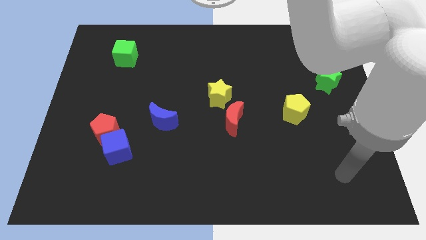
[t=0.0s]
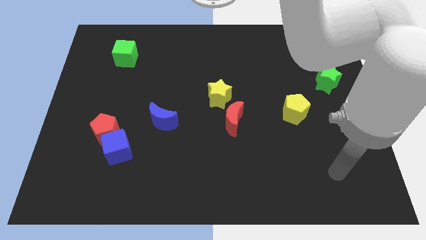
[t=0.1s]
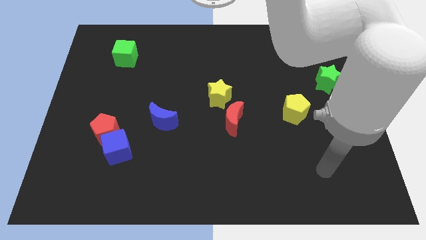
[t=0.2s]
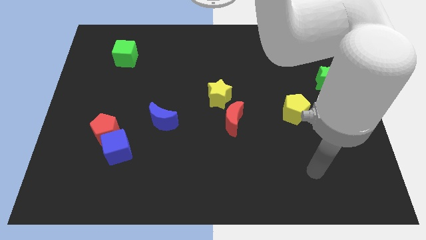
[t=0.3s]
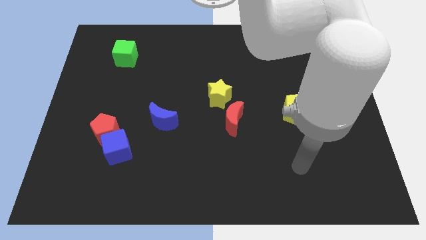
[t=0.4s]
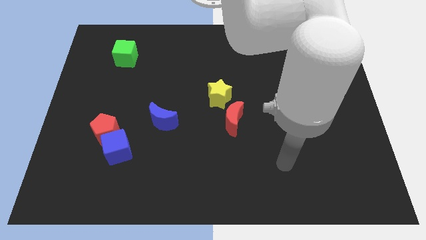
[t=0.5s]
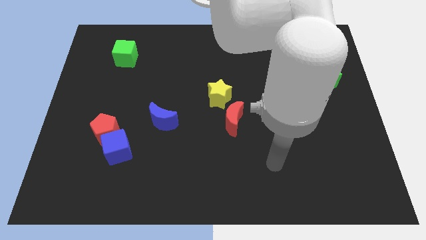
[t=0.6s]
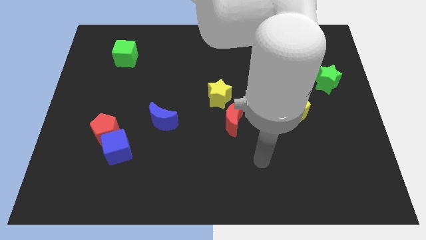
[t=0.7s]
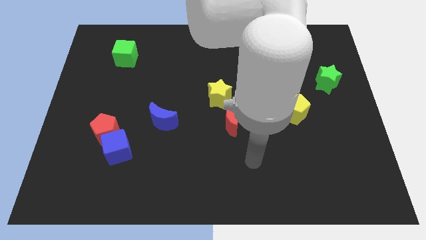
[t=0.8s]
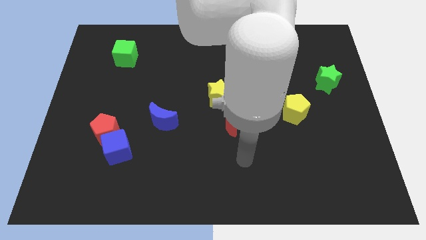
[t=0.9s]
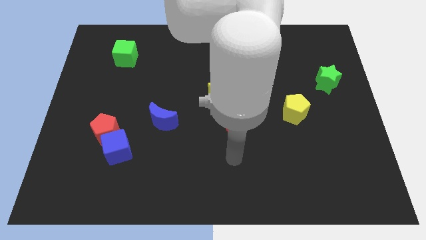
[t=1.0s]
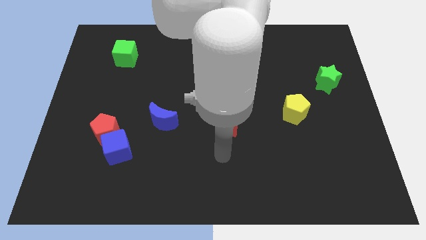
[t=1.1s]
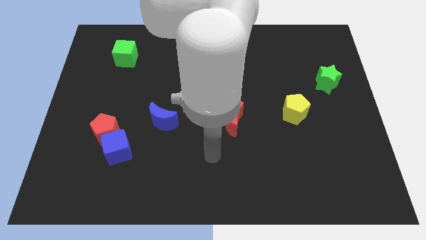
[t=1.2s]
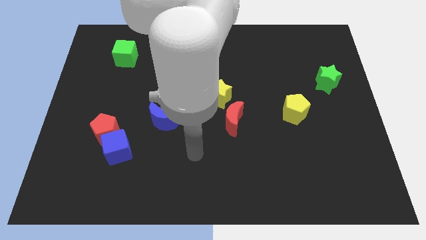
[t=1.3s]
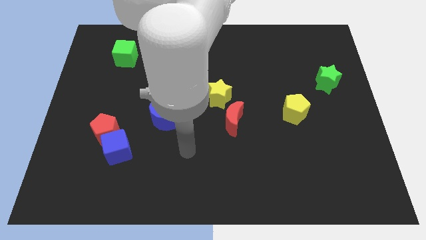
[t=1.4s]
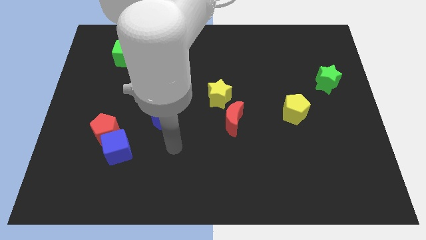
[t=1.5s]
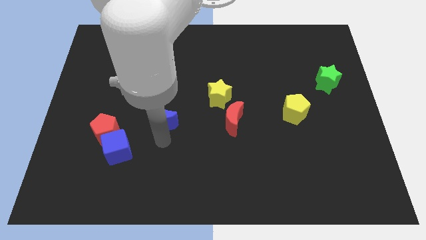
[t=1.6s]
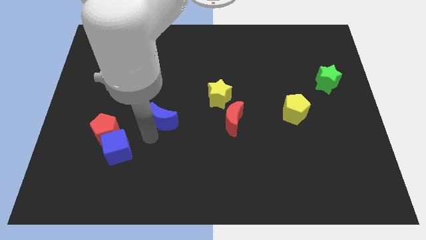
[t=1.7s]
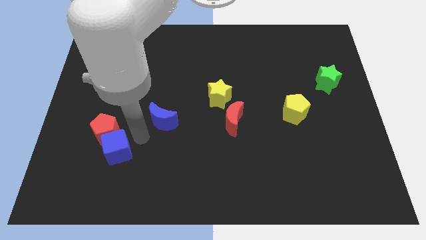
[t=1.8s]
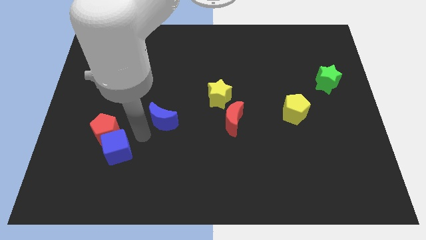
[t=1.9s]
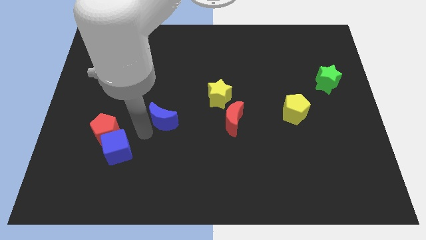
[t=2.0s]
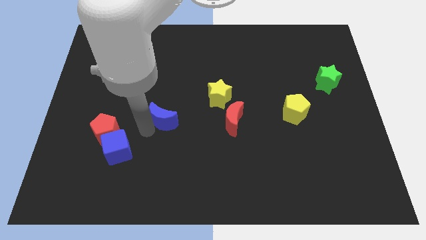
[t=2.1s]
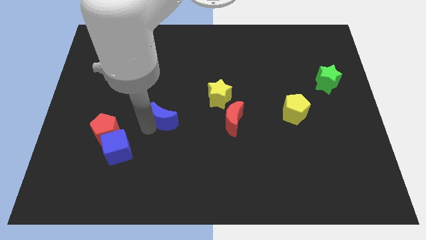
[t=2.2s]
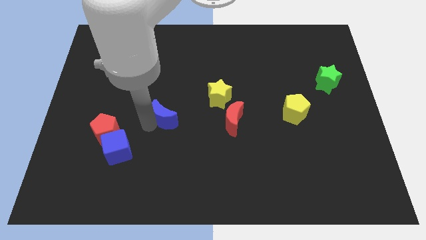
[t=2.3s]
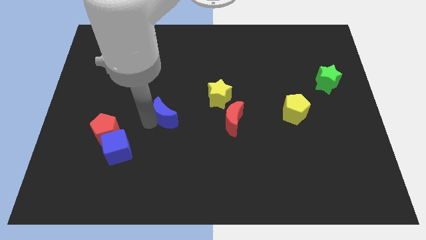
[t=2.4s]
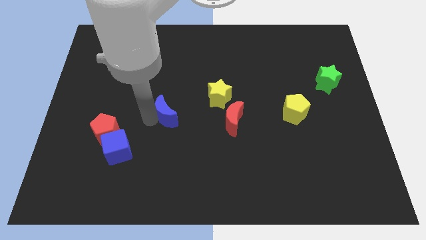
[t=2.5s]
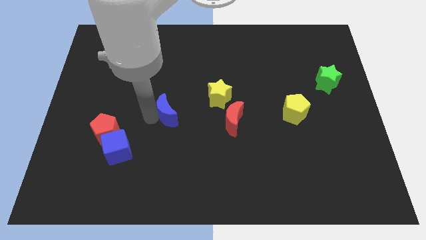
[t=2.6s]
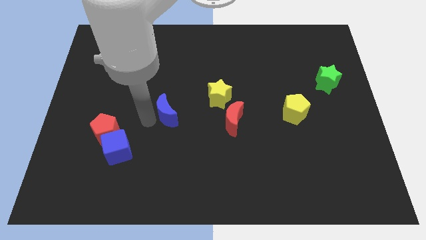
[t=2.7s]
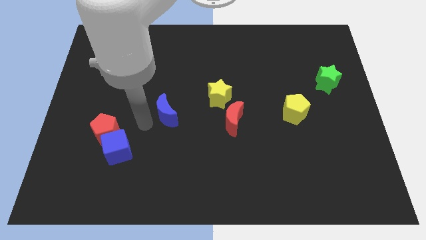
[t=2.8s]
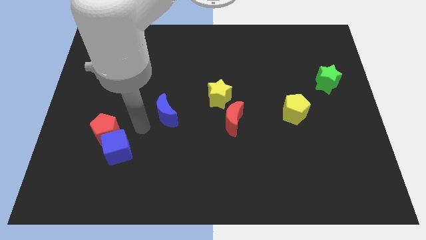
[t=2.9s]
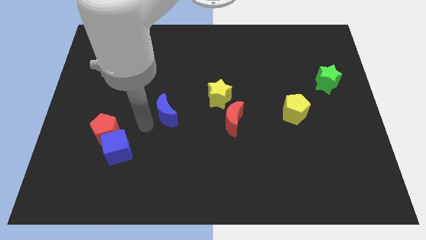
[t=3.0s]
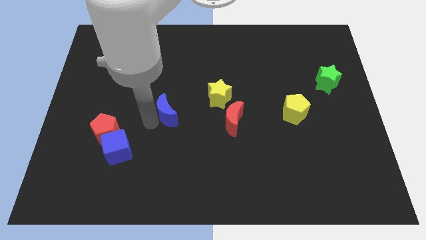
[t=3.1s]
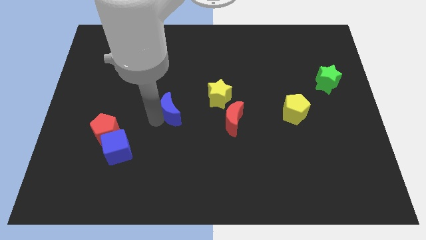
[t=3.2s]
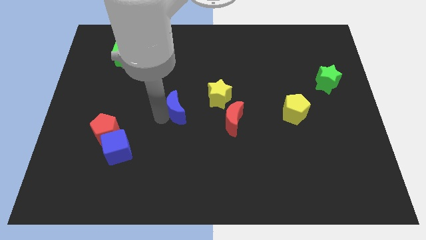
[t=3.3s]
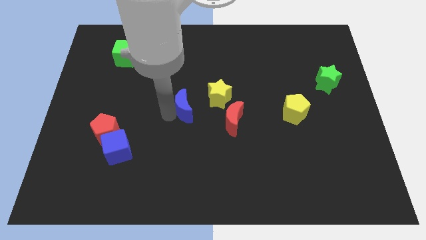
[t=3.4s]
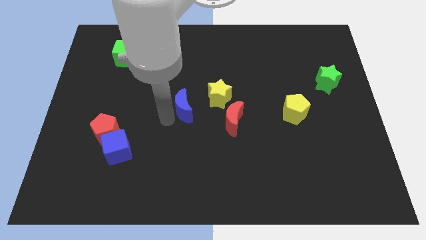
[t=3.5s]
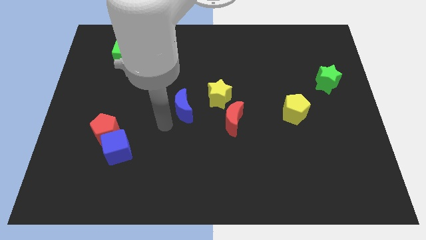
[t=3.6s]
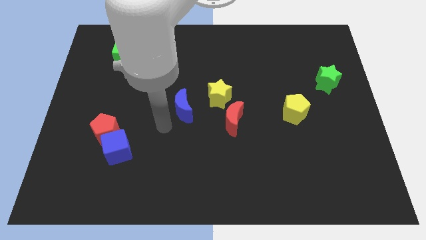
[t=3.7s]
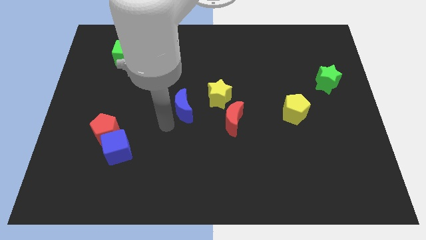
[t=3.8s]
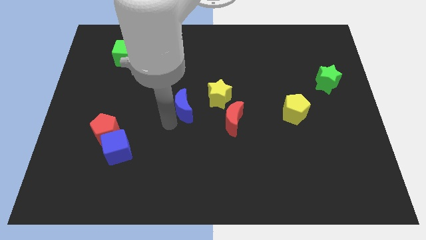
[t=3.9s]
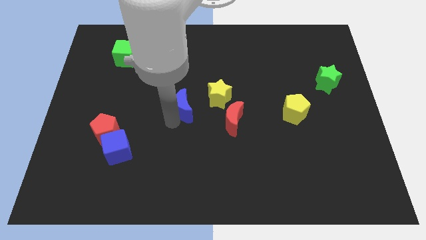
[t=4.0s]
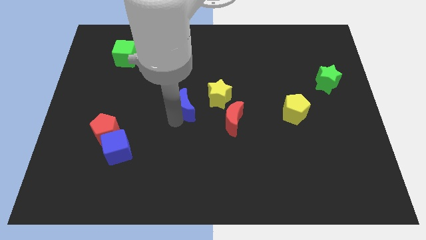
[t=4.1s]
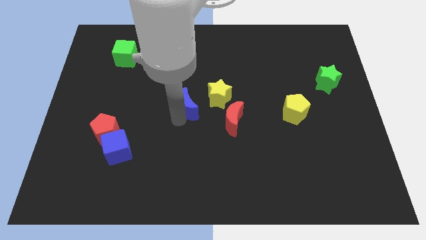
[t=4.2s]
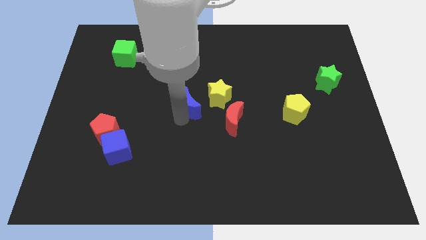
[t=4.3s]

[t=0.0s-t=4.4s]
move the blue moon a bit upwards and right diagonally

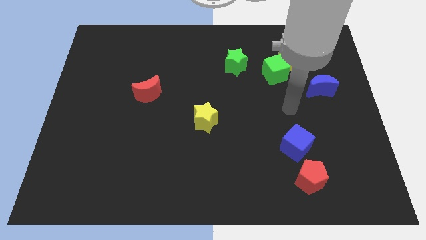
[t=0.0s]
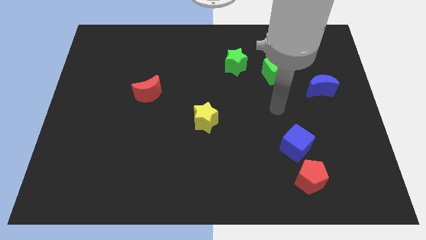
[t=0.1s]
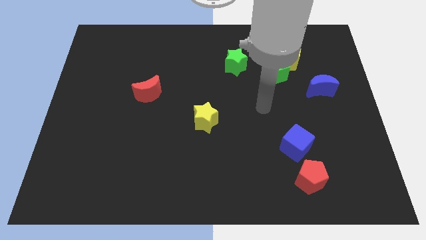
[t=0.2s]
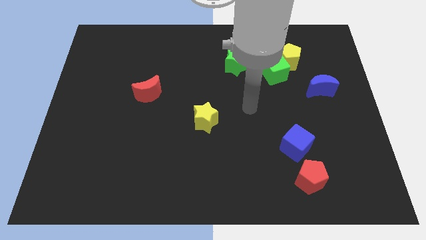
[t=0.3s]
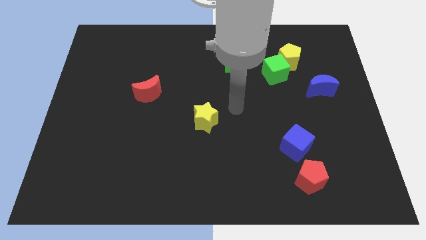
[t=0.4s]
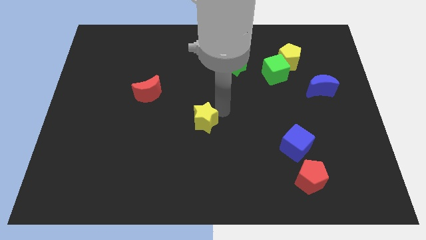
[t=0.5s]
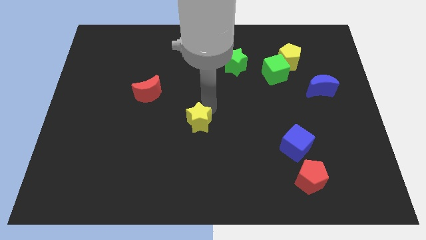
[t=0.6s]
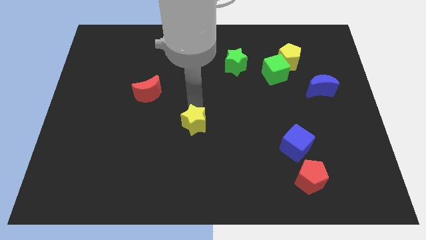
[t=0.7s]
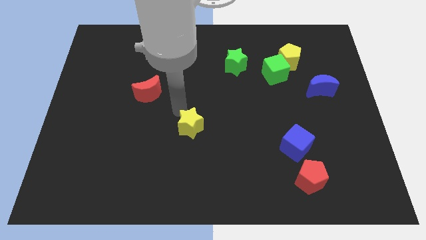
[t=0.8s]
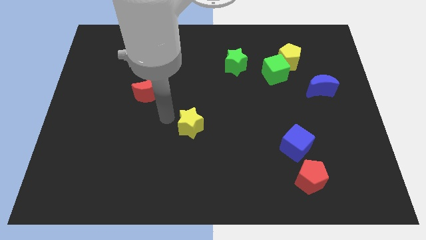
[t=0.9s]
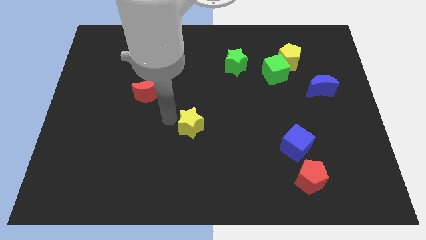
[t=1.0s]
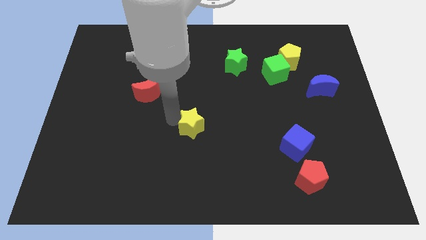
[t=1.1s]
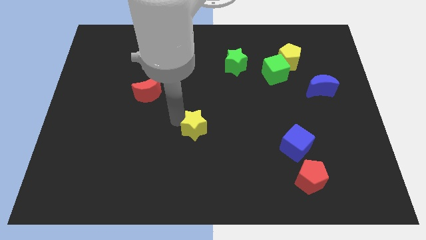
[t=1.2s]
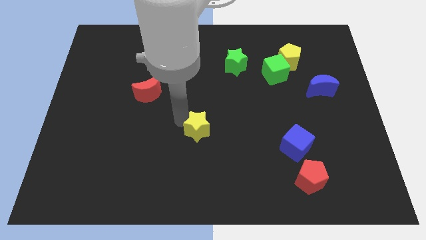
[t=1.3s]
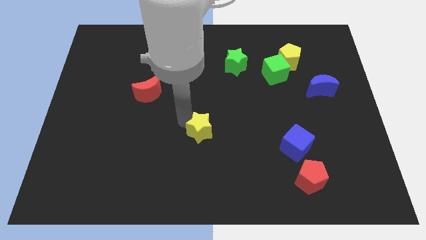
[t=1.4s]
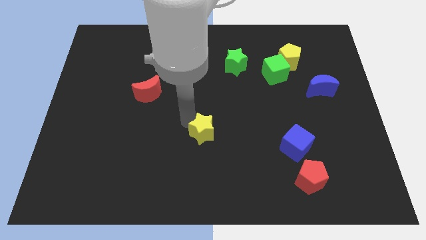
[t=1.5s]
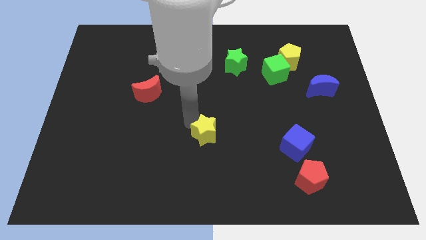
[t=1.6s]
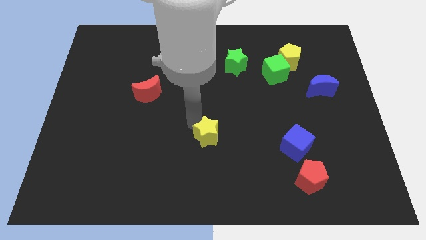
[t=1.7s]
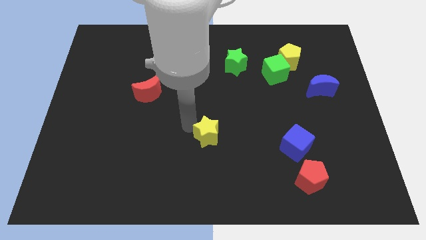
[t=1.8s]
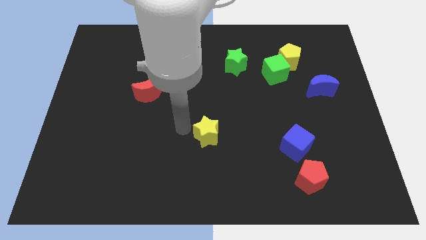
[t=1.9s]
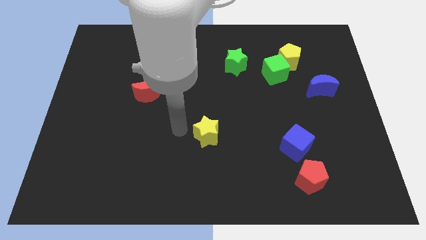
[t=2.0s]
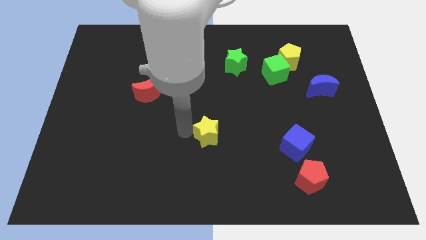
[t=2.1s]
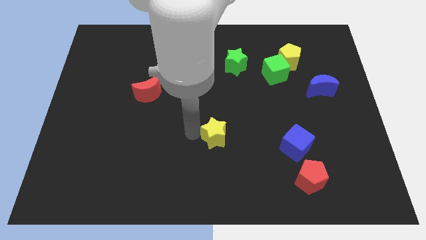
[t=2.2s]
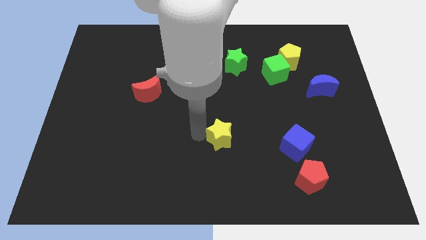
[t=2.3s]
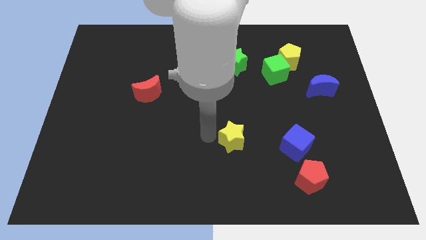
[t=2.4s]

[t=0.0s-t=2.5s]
slide the yellow star down and to the right somewhat

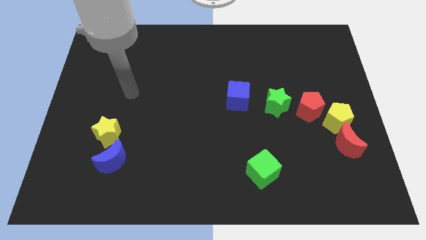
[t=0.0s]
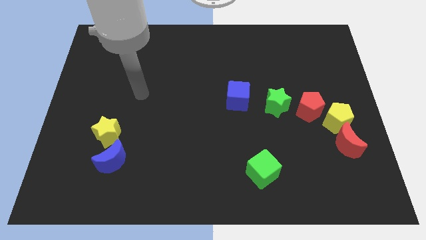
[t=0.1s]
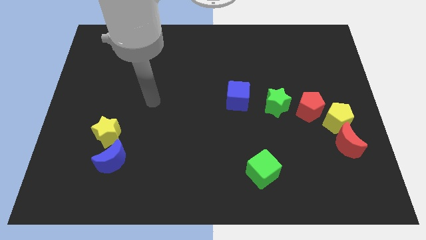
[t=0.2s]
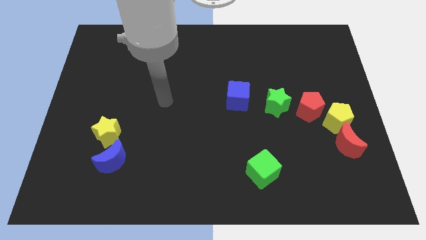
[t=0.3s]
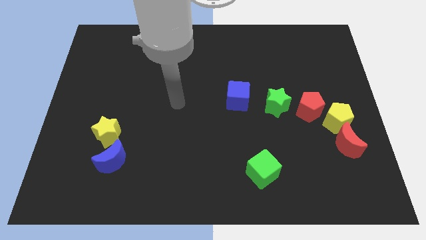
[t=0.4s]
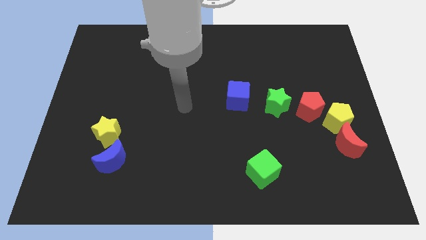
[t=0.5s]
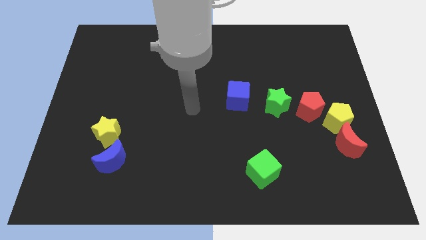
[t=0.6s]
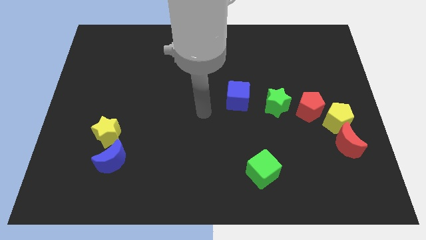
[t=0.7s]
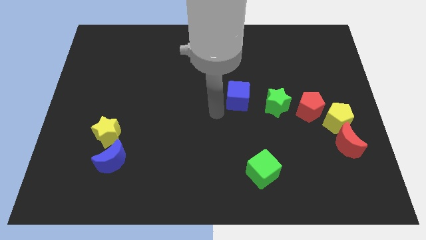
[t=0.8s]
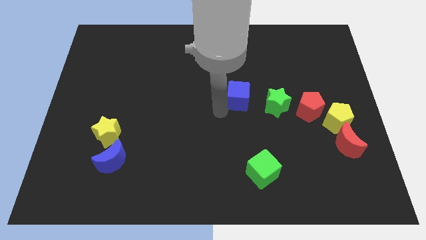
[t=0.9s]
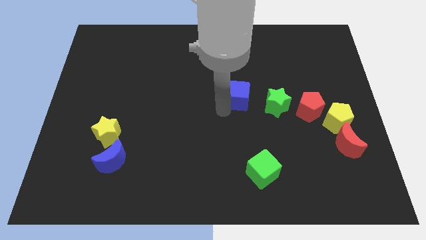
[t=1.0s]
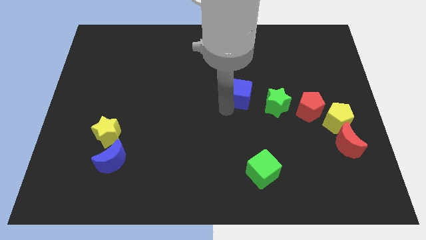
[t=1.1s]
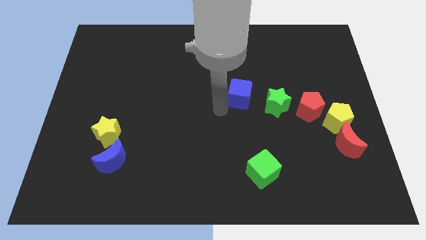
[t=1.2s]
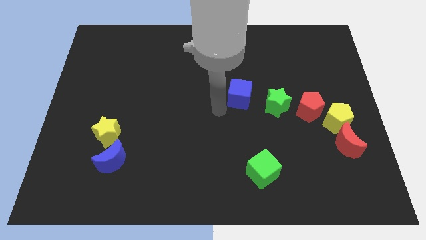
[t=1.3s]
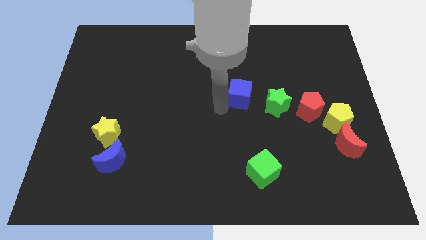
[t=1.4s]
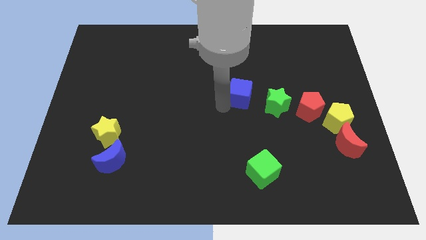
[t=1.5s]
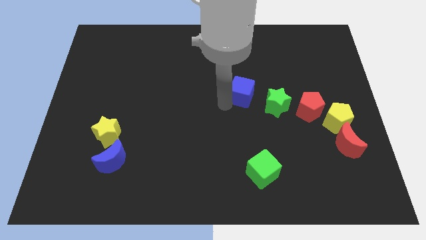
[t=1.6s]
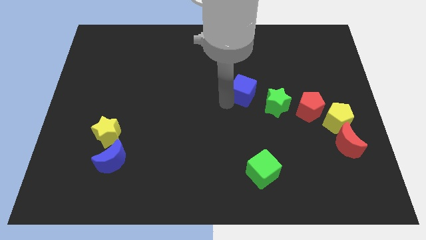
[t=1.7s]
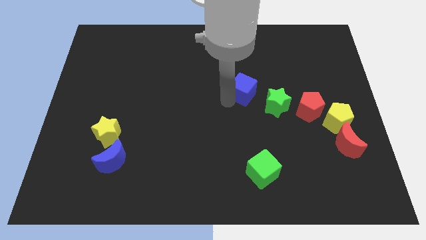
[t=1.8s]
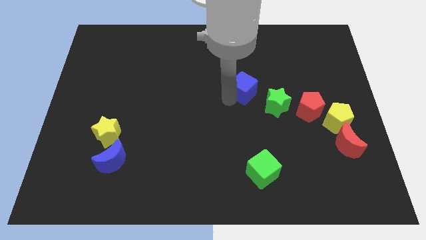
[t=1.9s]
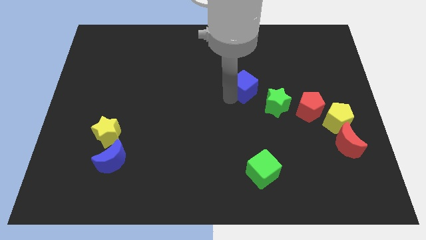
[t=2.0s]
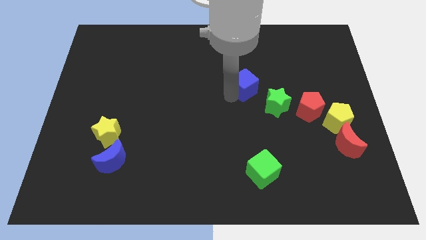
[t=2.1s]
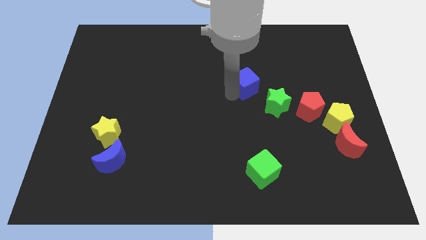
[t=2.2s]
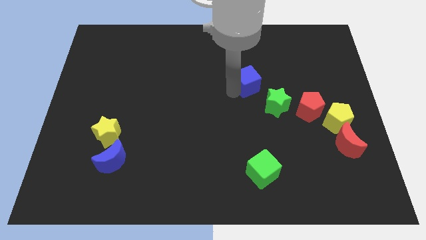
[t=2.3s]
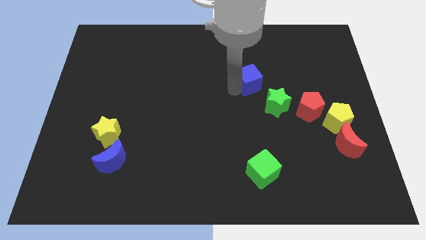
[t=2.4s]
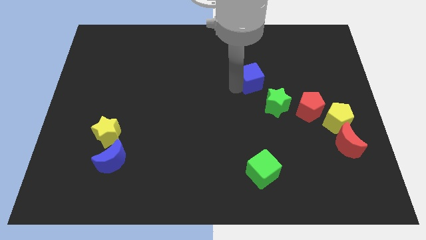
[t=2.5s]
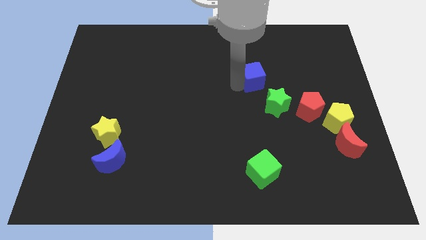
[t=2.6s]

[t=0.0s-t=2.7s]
slide the blue cube diagonally up and right a bit
